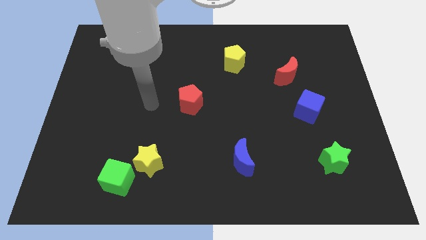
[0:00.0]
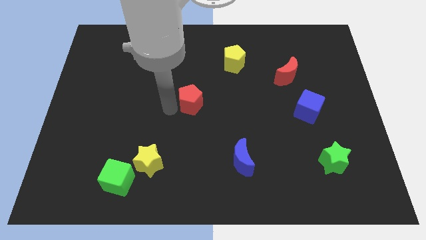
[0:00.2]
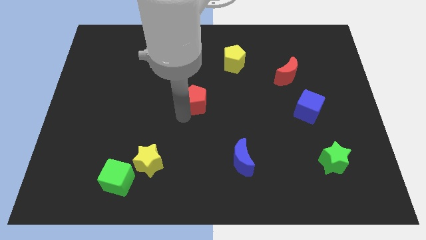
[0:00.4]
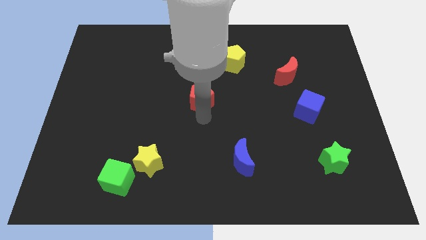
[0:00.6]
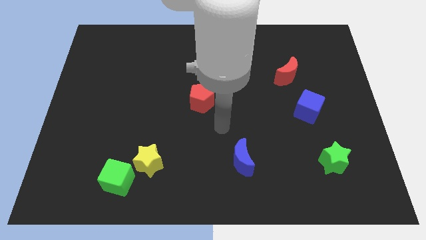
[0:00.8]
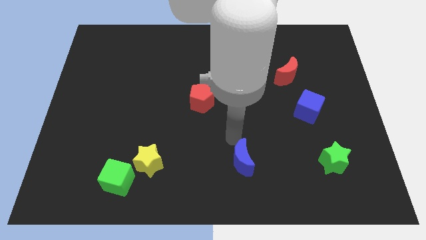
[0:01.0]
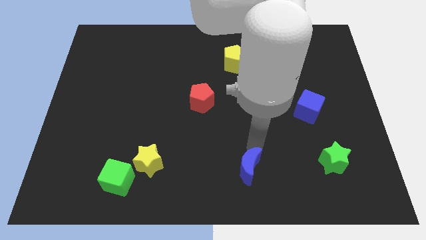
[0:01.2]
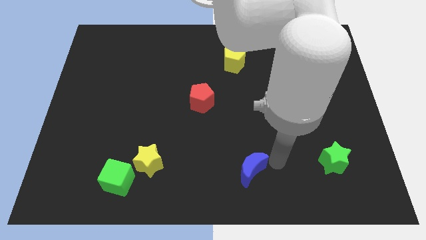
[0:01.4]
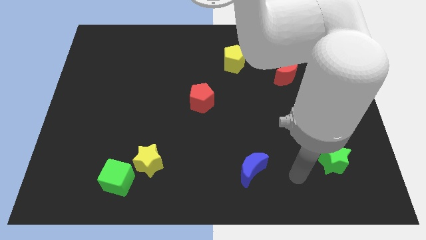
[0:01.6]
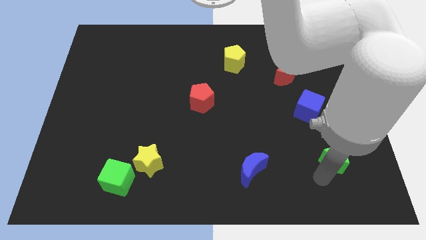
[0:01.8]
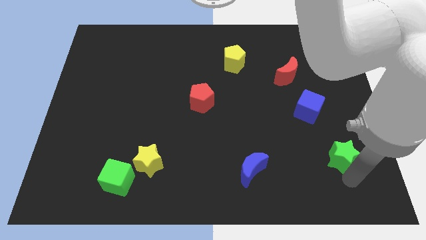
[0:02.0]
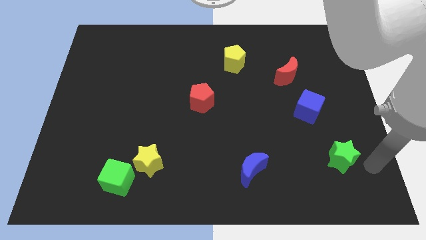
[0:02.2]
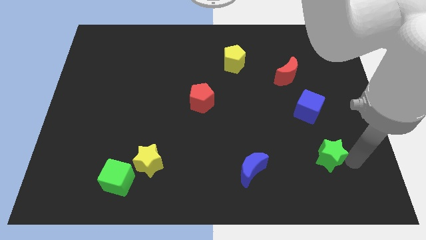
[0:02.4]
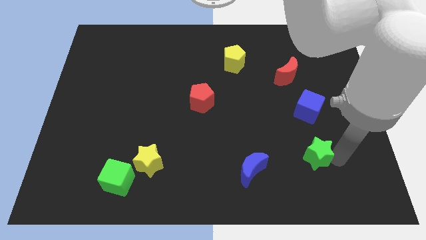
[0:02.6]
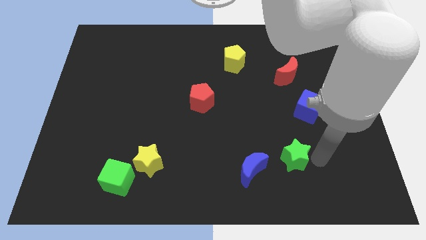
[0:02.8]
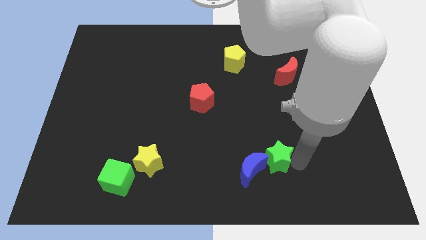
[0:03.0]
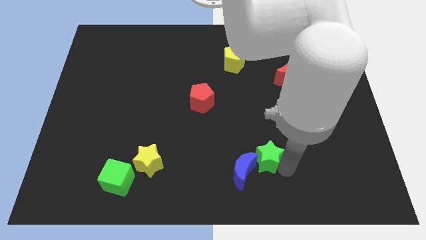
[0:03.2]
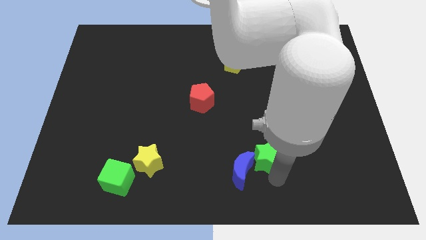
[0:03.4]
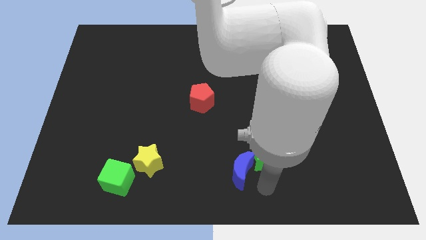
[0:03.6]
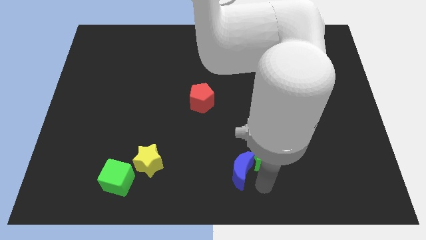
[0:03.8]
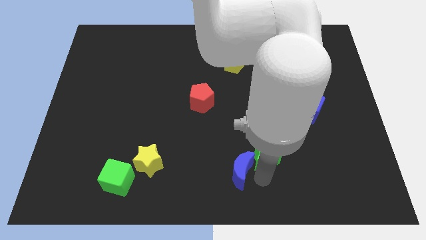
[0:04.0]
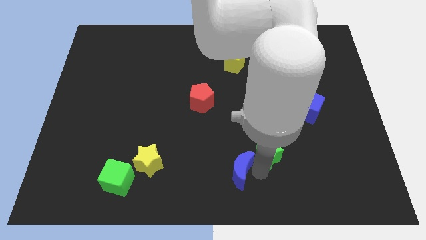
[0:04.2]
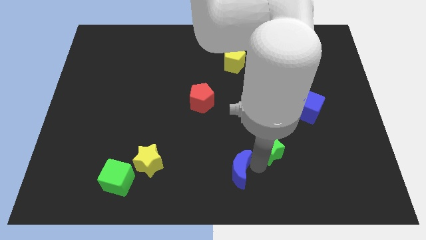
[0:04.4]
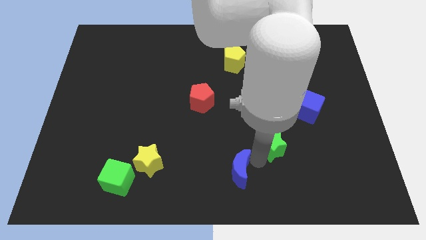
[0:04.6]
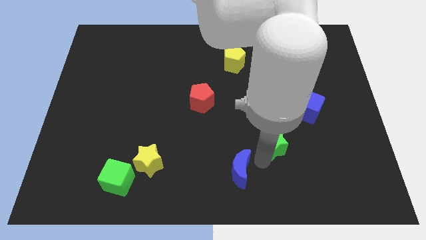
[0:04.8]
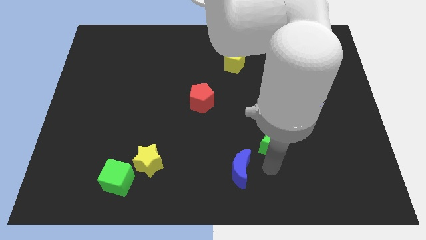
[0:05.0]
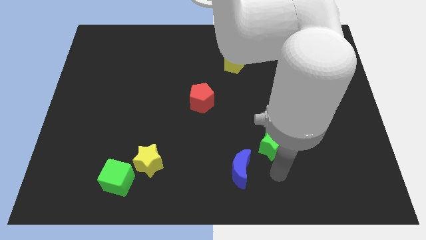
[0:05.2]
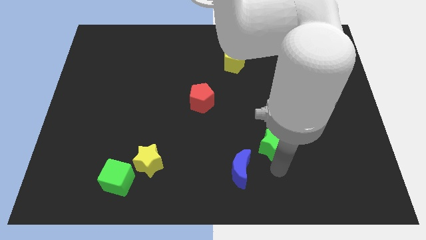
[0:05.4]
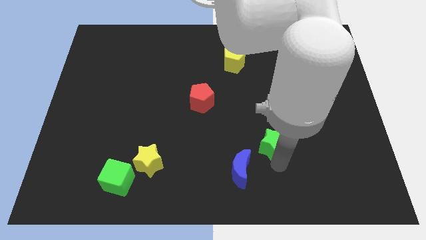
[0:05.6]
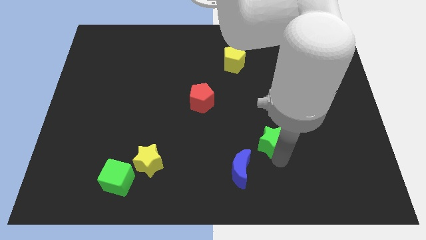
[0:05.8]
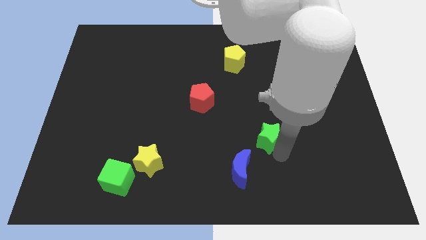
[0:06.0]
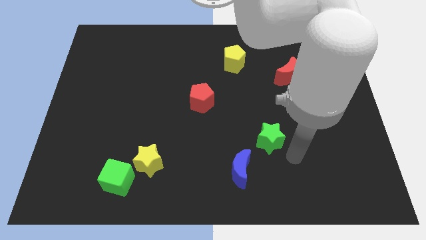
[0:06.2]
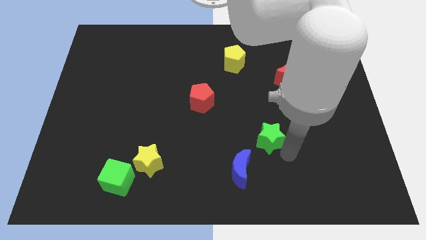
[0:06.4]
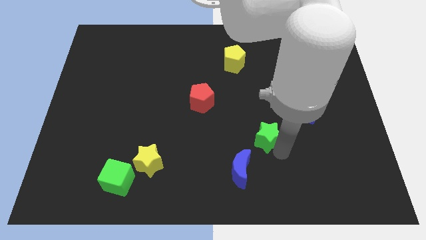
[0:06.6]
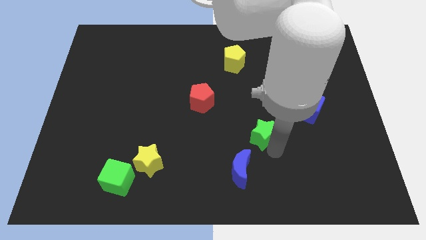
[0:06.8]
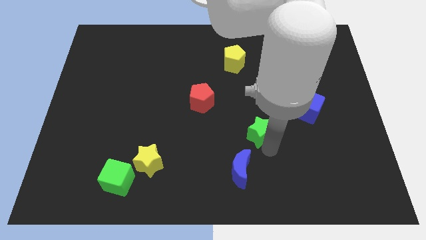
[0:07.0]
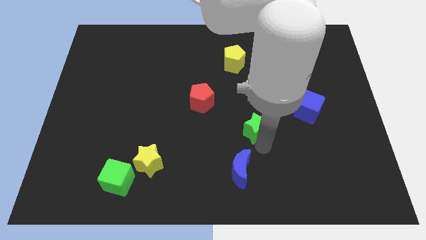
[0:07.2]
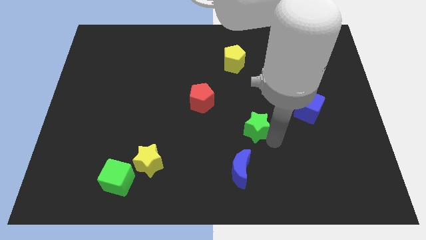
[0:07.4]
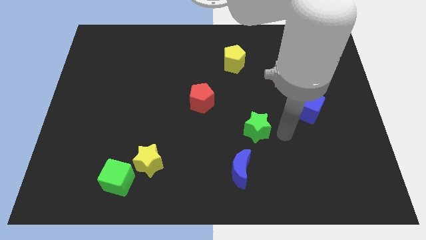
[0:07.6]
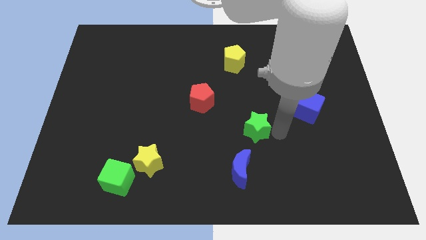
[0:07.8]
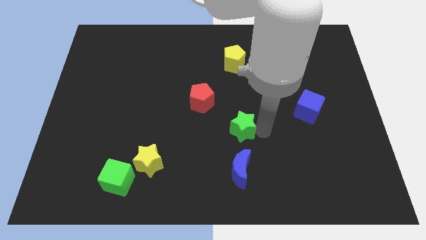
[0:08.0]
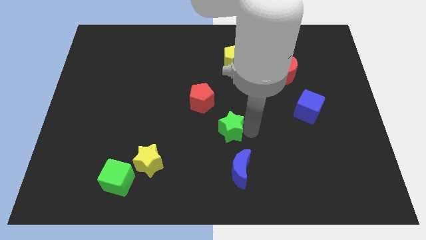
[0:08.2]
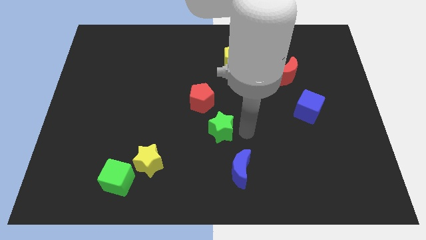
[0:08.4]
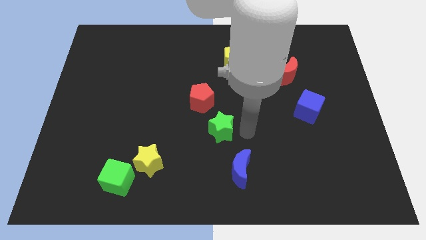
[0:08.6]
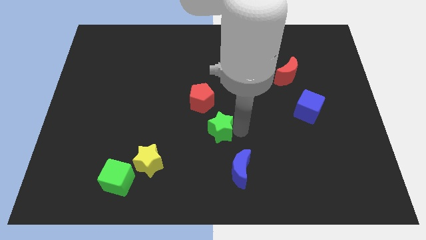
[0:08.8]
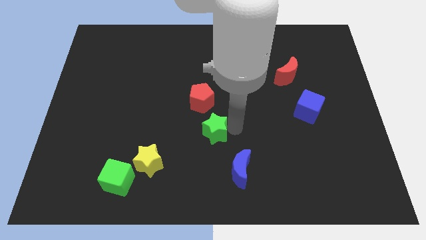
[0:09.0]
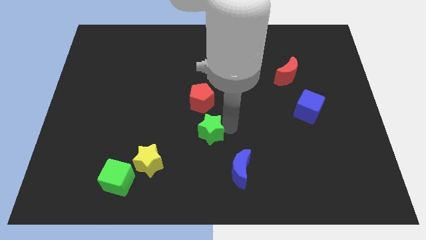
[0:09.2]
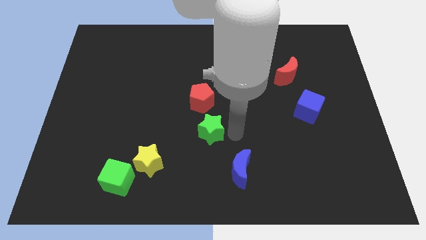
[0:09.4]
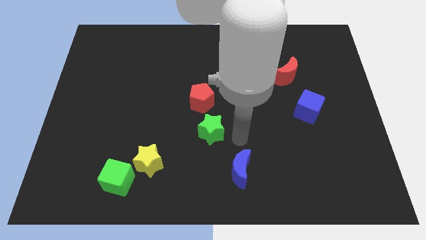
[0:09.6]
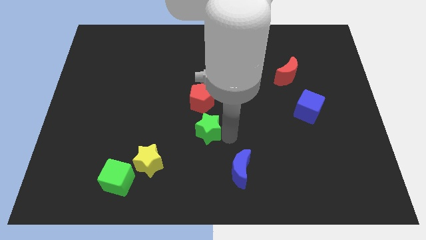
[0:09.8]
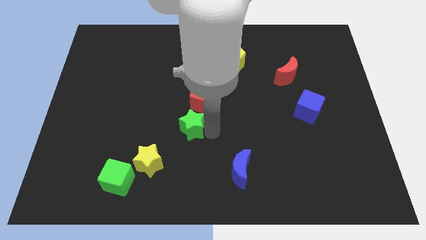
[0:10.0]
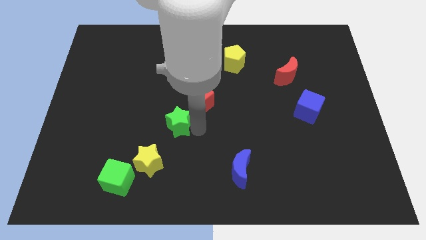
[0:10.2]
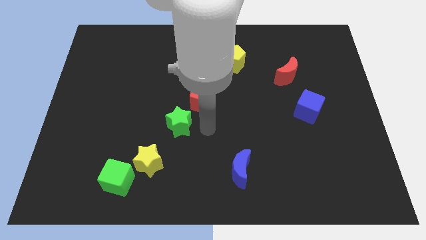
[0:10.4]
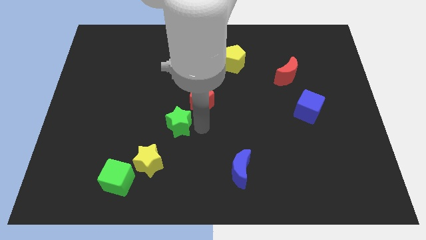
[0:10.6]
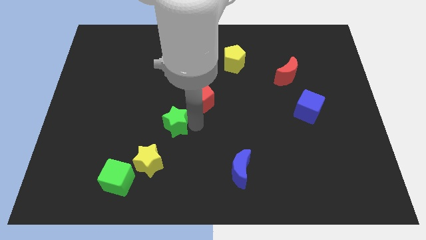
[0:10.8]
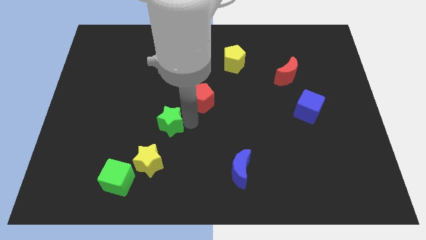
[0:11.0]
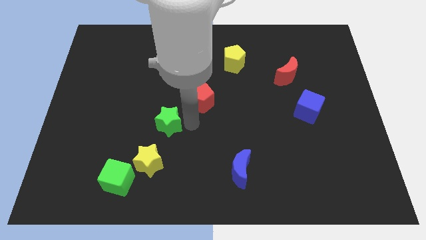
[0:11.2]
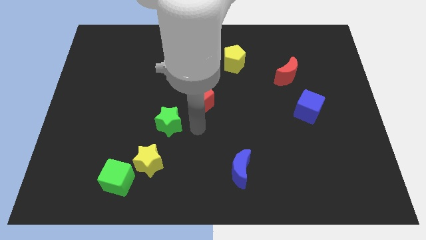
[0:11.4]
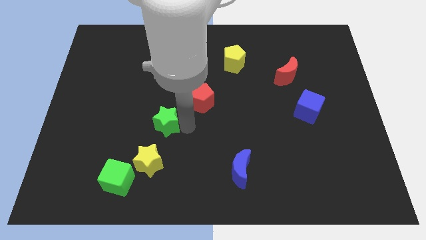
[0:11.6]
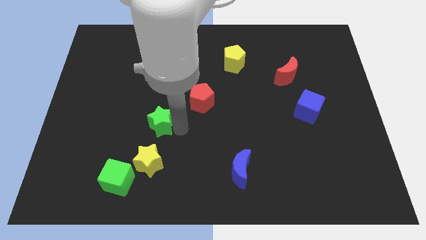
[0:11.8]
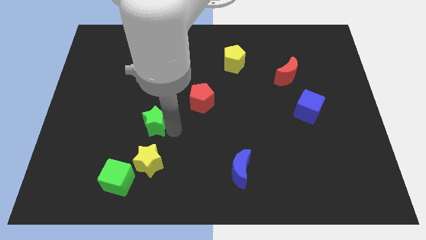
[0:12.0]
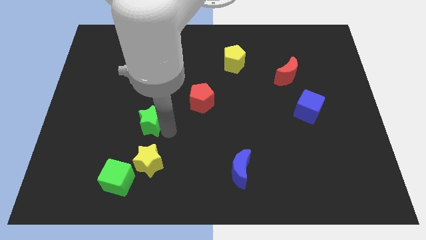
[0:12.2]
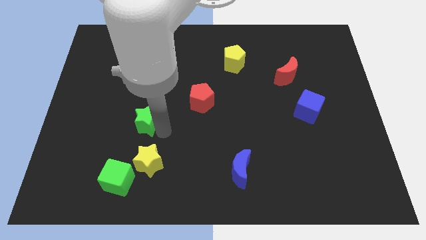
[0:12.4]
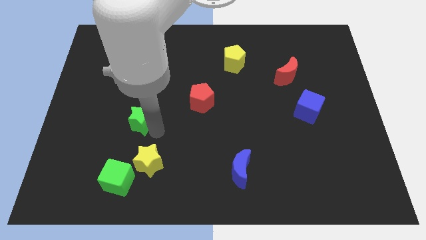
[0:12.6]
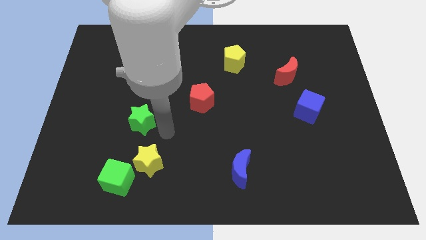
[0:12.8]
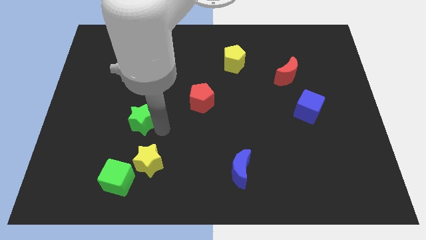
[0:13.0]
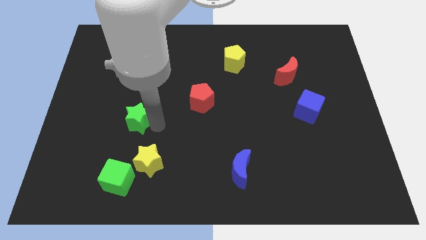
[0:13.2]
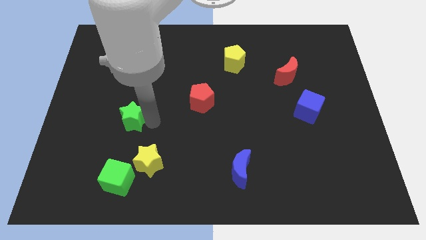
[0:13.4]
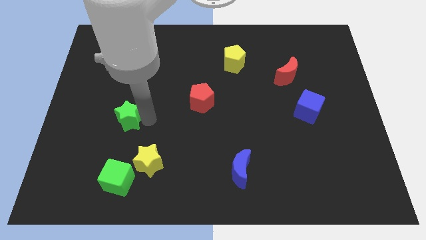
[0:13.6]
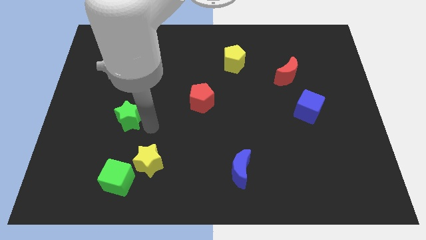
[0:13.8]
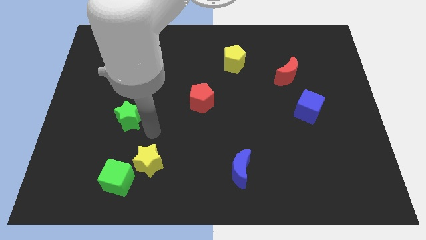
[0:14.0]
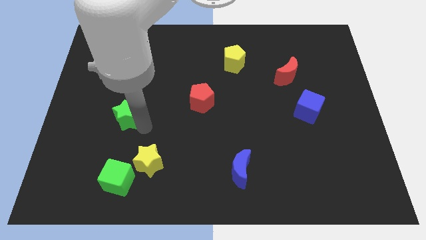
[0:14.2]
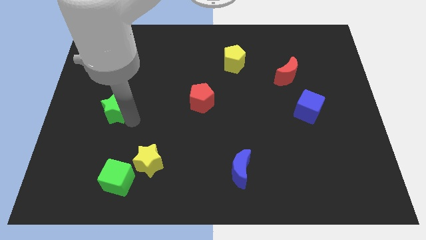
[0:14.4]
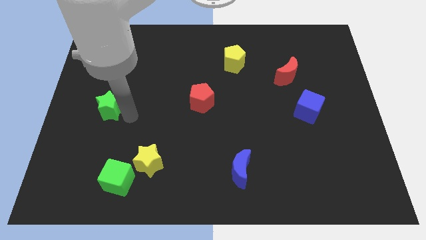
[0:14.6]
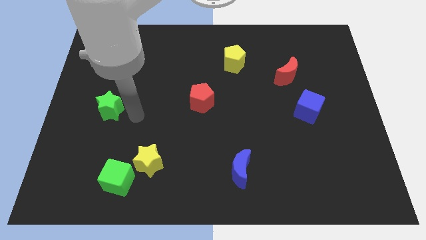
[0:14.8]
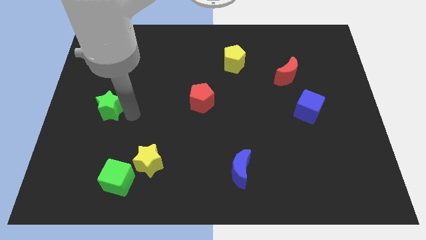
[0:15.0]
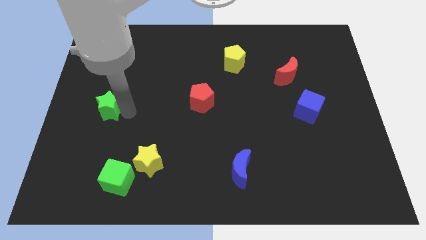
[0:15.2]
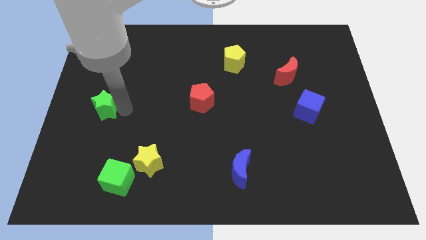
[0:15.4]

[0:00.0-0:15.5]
push the green star to the left side
